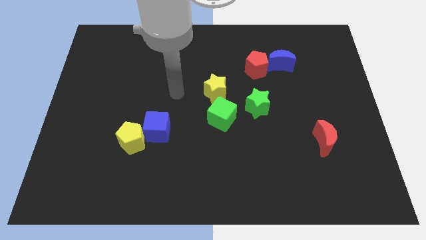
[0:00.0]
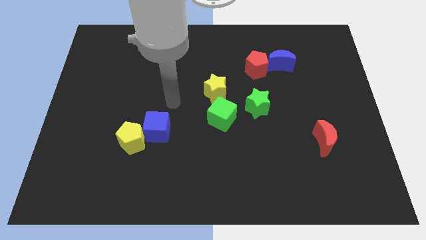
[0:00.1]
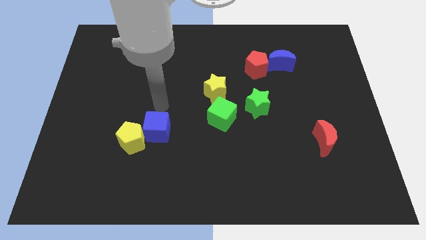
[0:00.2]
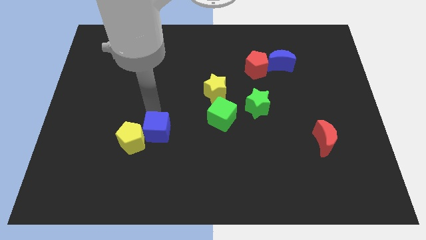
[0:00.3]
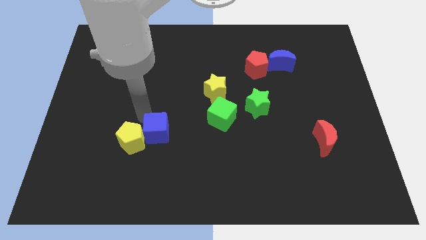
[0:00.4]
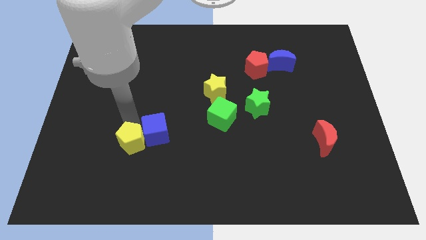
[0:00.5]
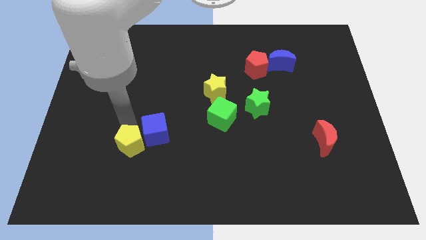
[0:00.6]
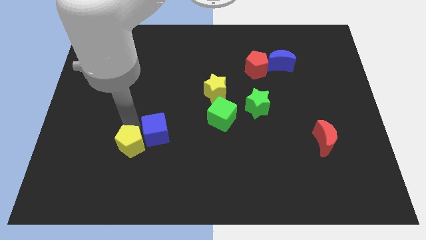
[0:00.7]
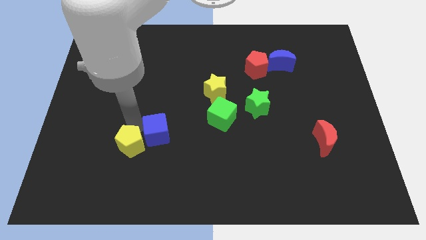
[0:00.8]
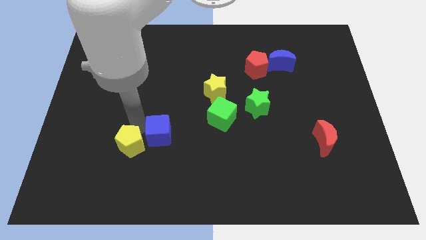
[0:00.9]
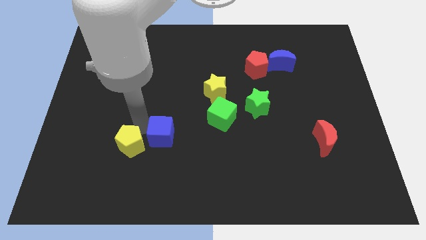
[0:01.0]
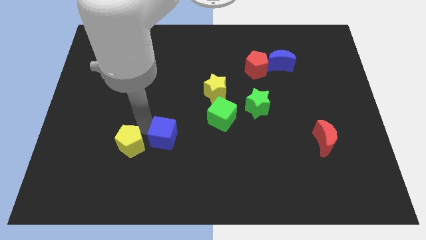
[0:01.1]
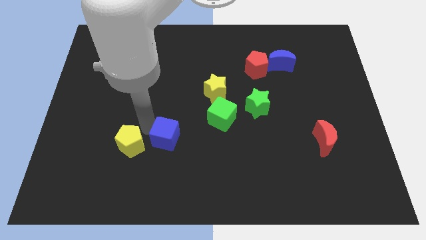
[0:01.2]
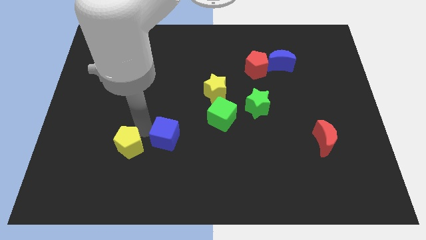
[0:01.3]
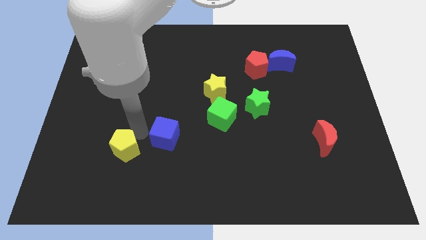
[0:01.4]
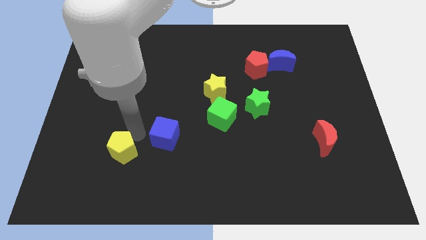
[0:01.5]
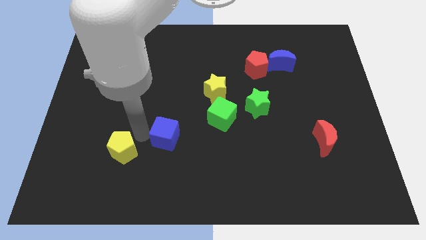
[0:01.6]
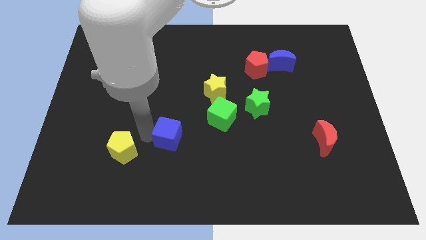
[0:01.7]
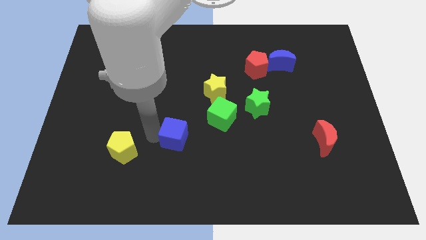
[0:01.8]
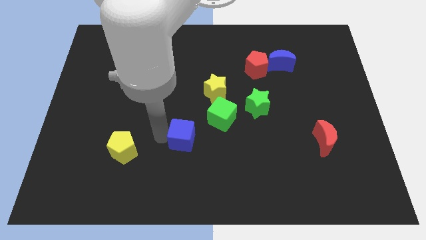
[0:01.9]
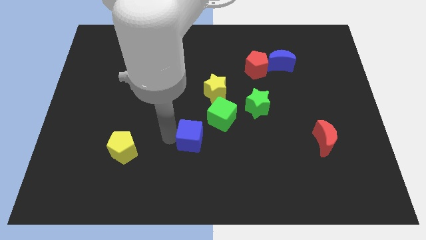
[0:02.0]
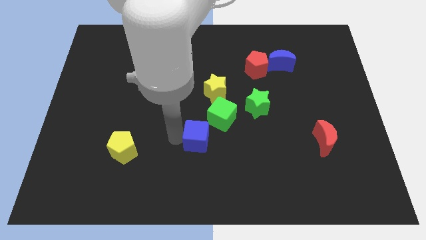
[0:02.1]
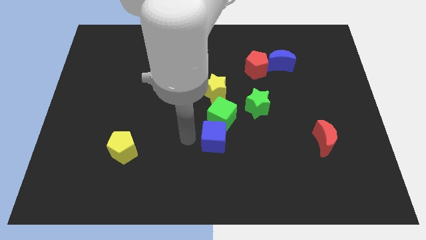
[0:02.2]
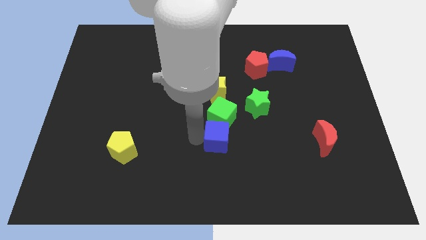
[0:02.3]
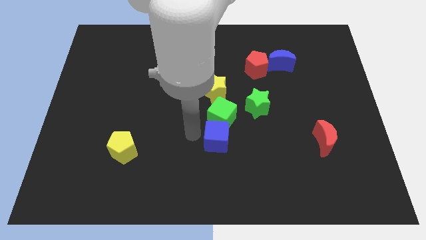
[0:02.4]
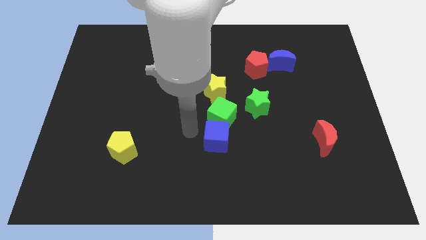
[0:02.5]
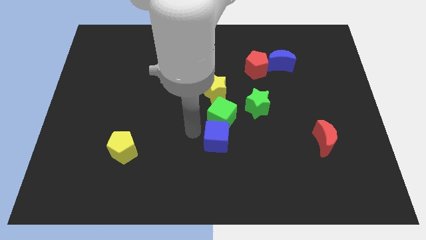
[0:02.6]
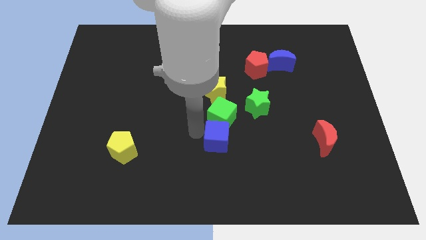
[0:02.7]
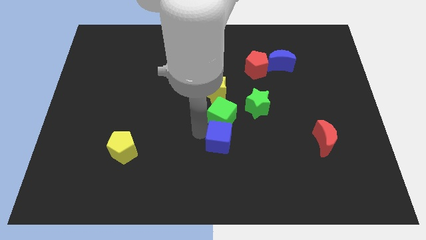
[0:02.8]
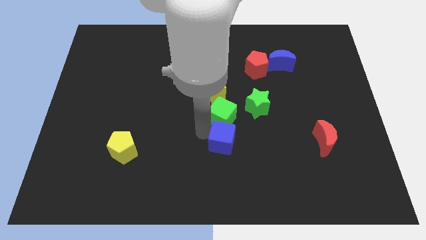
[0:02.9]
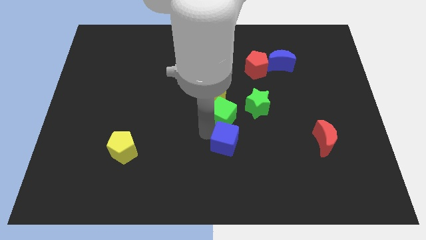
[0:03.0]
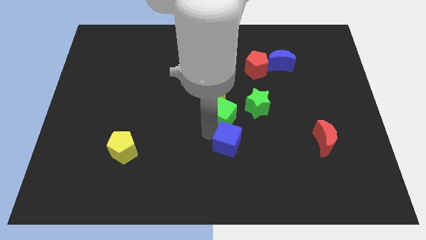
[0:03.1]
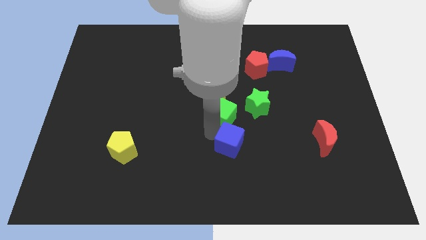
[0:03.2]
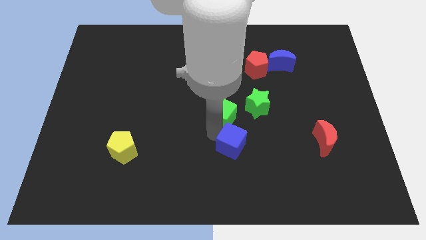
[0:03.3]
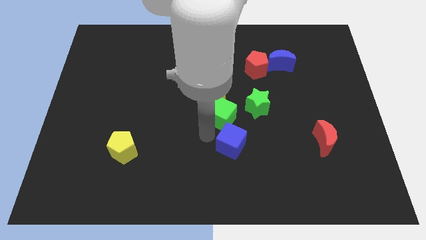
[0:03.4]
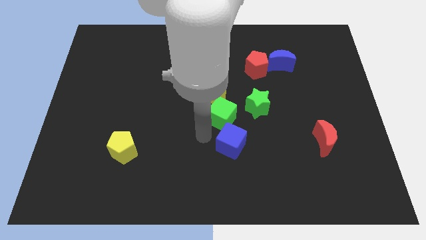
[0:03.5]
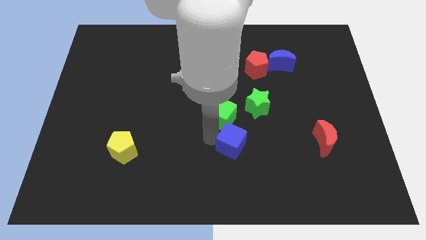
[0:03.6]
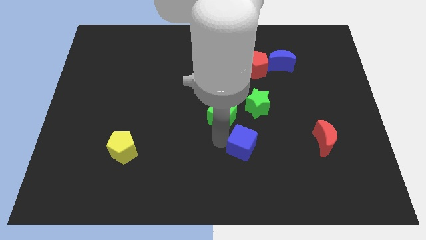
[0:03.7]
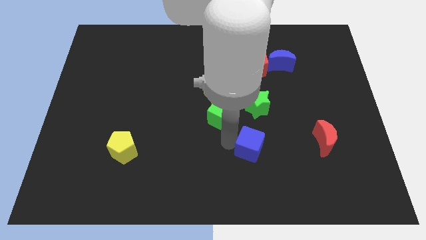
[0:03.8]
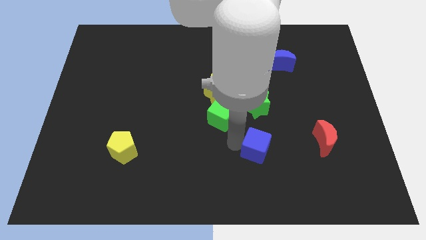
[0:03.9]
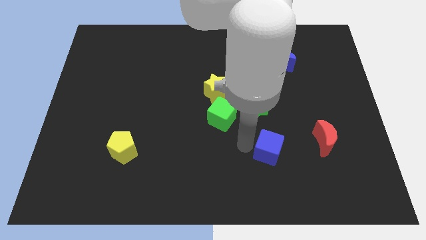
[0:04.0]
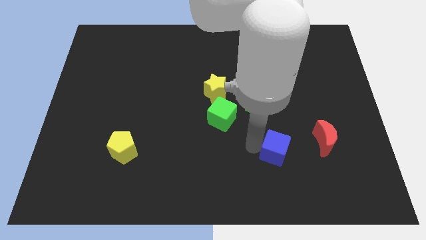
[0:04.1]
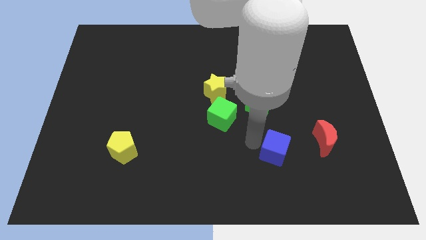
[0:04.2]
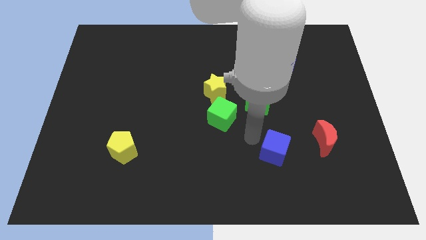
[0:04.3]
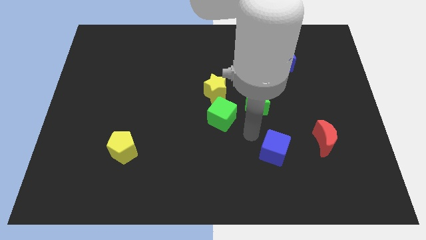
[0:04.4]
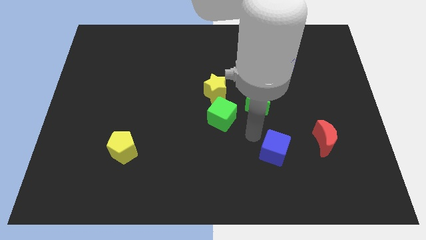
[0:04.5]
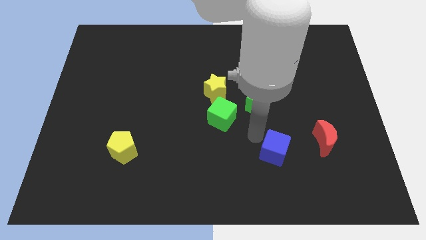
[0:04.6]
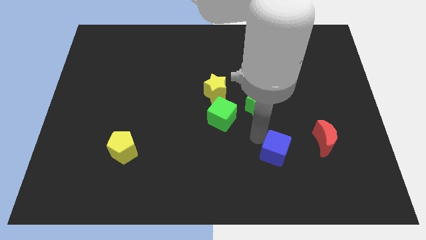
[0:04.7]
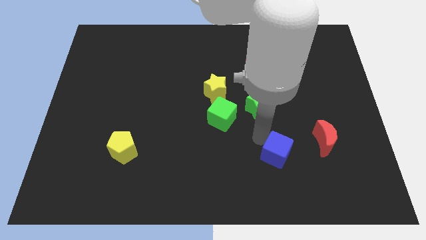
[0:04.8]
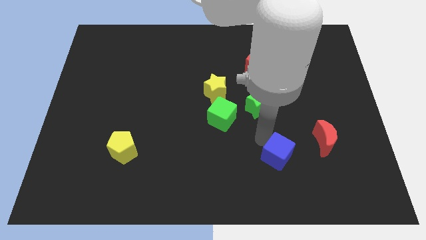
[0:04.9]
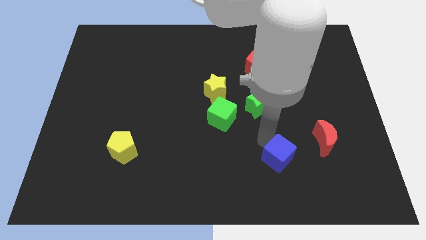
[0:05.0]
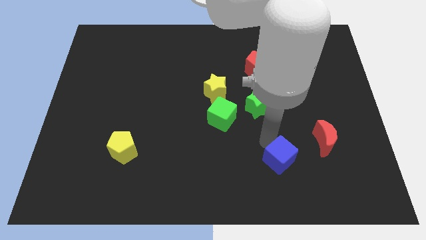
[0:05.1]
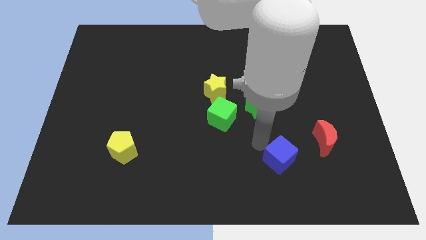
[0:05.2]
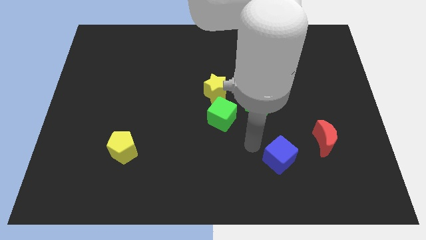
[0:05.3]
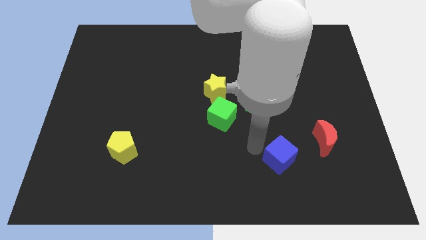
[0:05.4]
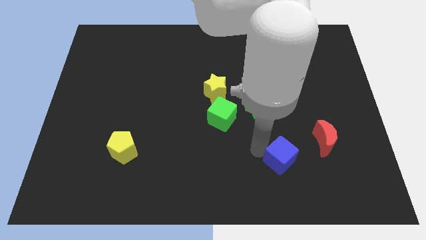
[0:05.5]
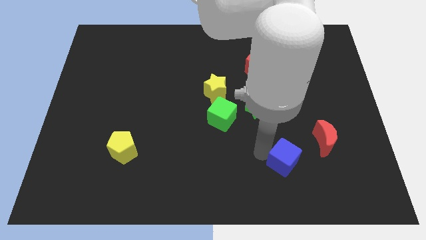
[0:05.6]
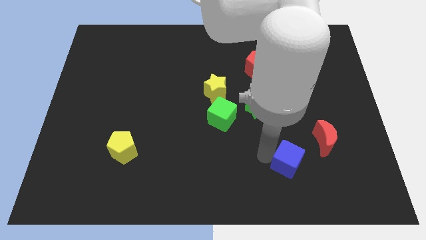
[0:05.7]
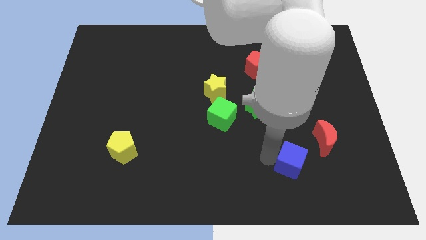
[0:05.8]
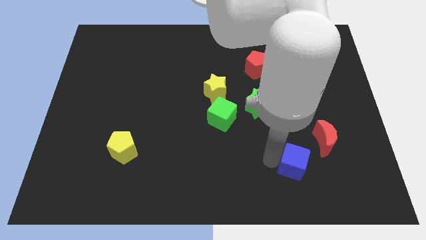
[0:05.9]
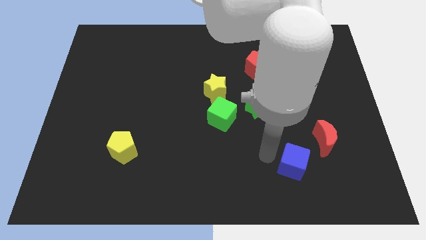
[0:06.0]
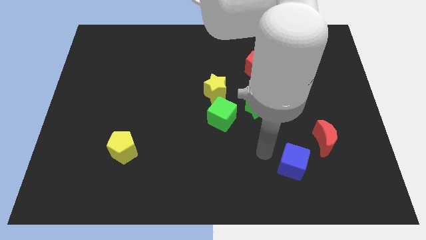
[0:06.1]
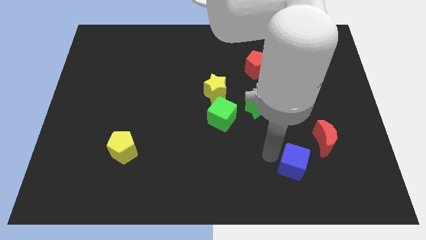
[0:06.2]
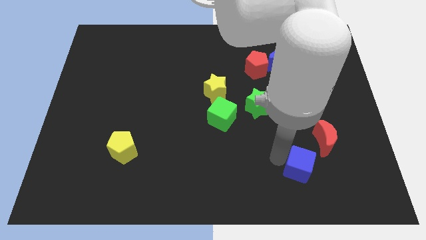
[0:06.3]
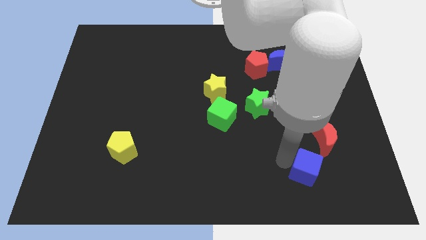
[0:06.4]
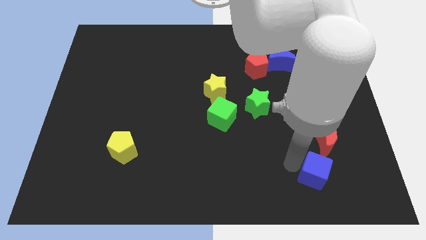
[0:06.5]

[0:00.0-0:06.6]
push the blue cube to the bottom of the red moon

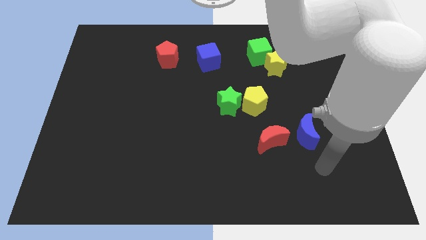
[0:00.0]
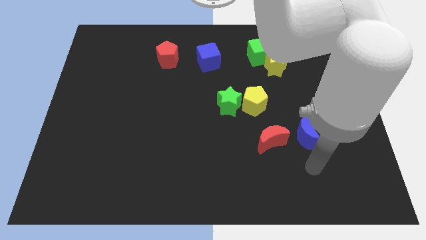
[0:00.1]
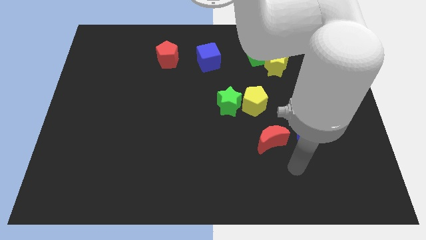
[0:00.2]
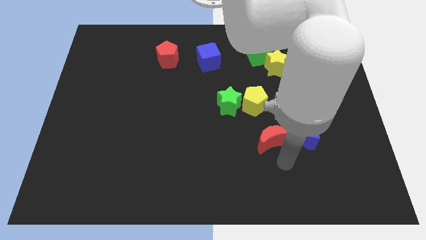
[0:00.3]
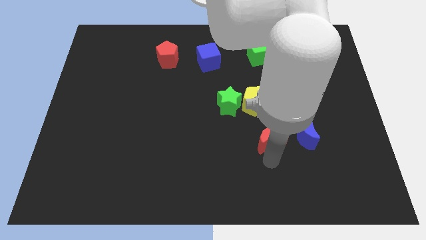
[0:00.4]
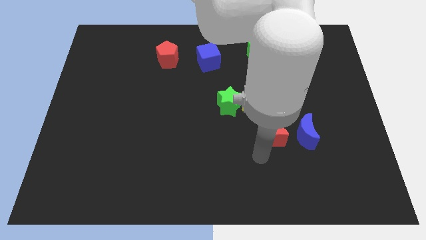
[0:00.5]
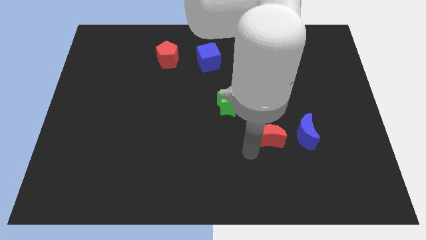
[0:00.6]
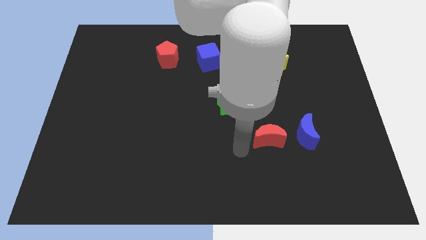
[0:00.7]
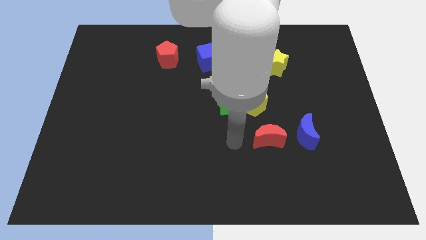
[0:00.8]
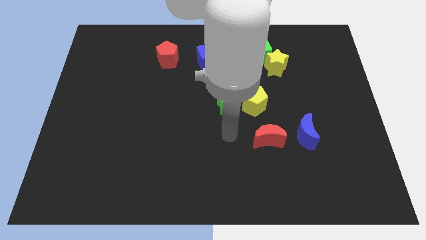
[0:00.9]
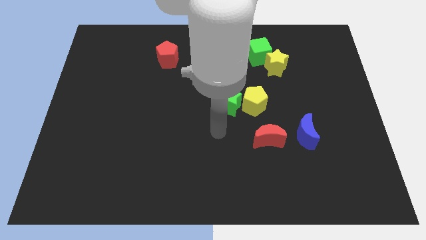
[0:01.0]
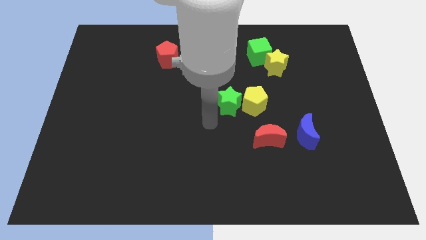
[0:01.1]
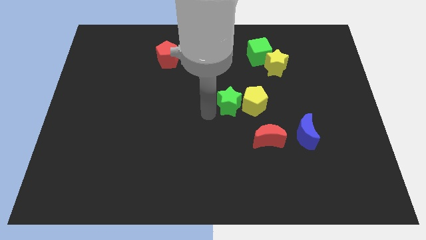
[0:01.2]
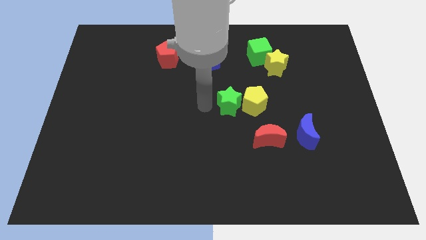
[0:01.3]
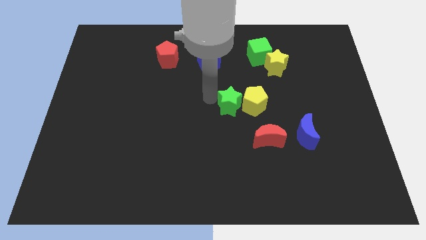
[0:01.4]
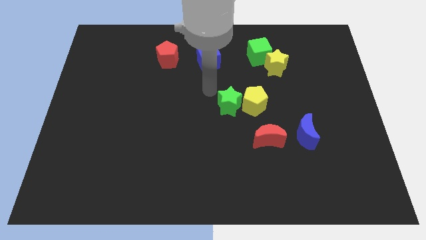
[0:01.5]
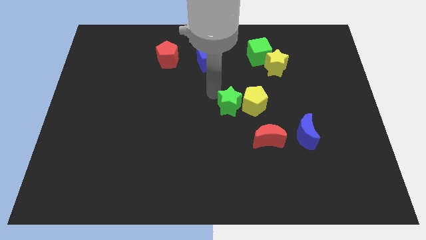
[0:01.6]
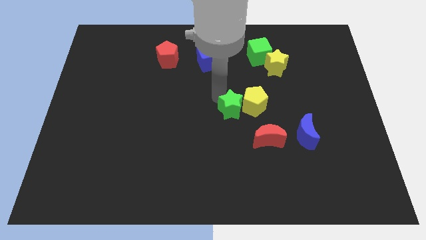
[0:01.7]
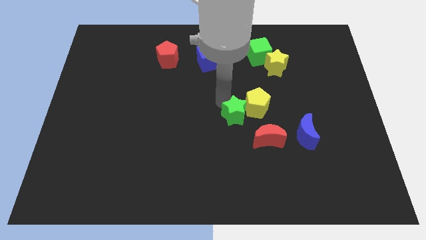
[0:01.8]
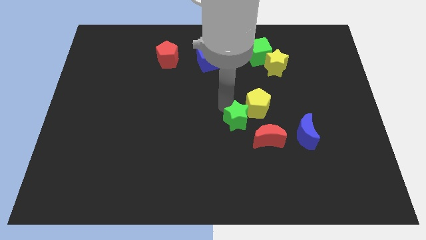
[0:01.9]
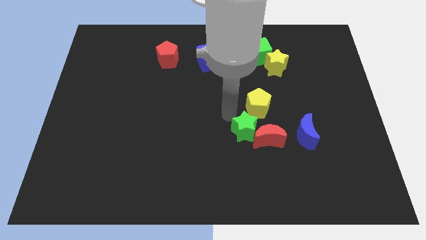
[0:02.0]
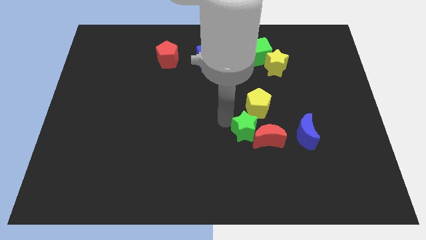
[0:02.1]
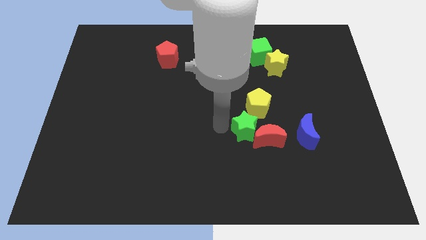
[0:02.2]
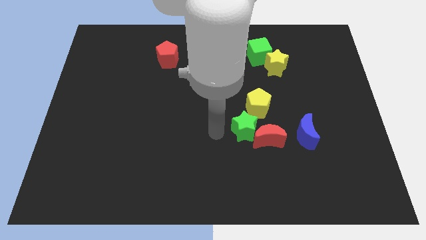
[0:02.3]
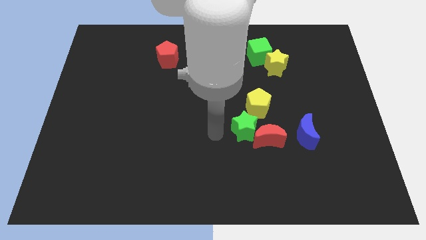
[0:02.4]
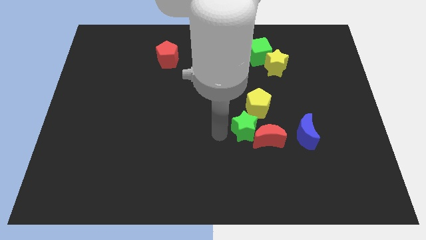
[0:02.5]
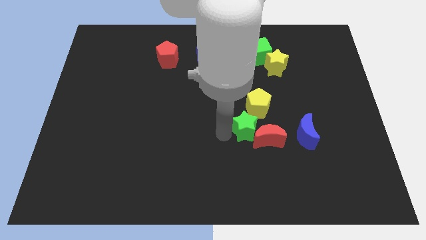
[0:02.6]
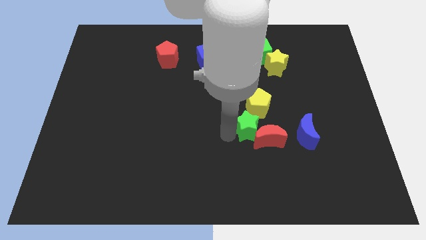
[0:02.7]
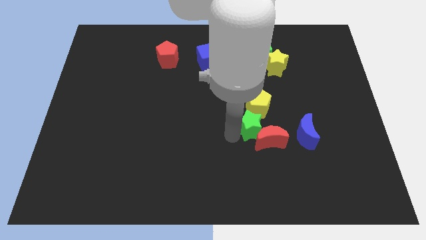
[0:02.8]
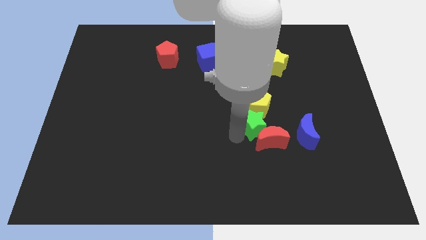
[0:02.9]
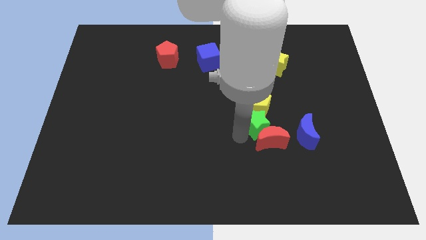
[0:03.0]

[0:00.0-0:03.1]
move the green star to the bottom right of the yellow pentagon
